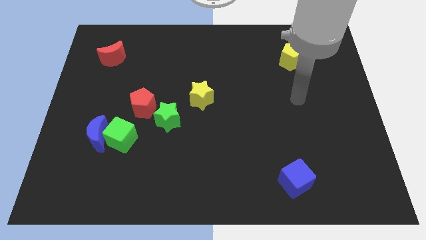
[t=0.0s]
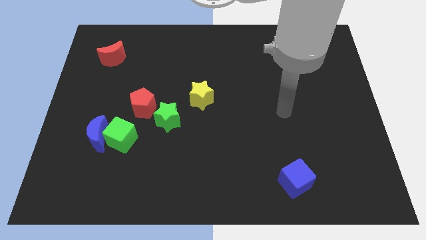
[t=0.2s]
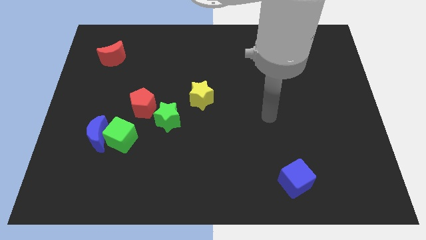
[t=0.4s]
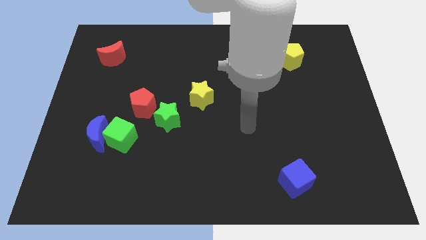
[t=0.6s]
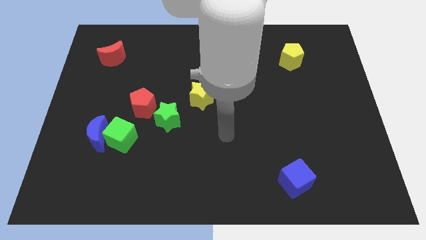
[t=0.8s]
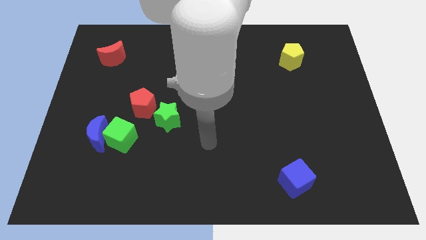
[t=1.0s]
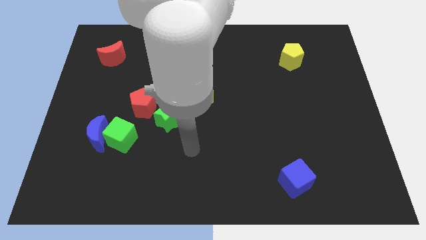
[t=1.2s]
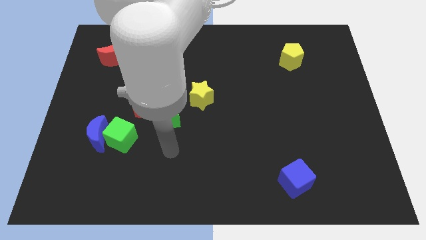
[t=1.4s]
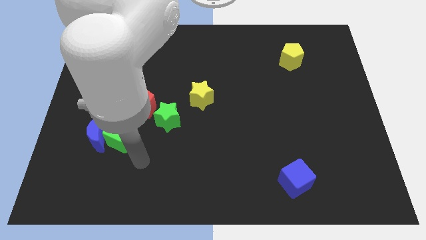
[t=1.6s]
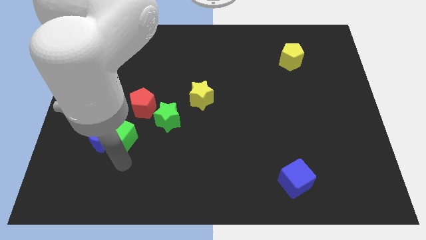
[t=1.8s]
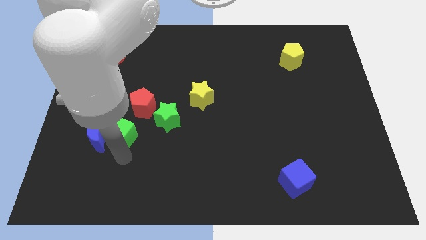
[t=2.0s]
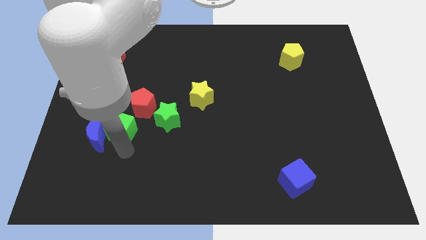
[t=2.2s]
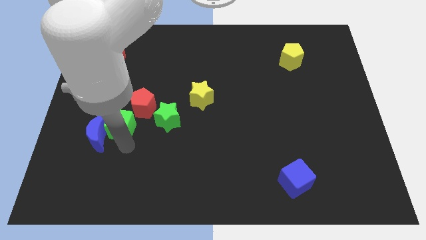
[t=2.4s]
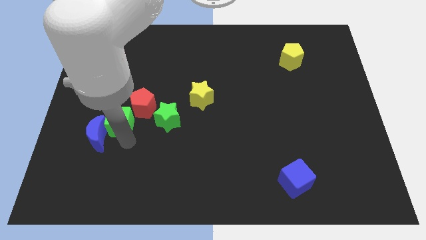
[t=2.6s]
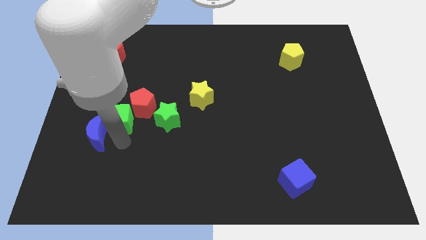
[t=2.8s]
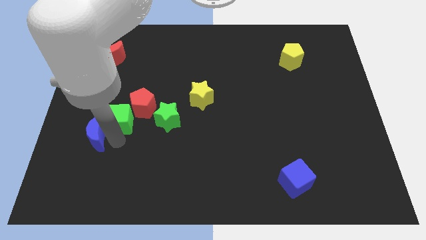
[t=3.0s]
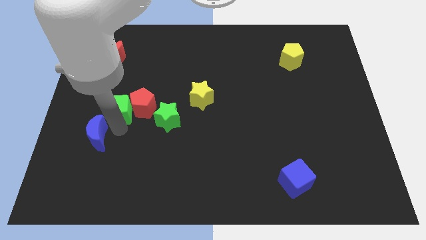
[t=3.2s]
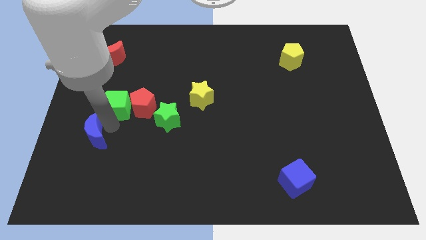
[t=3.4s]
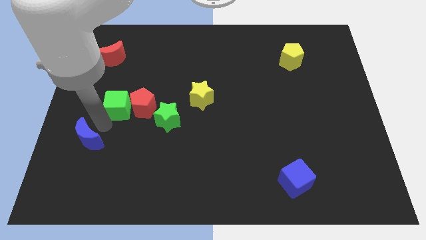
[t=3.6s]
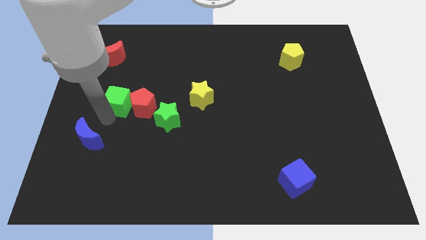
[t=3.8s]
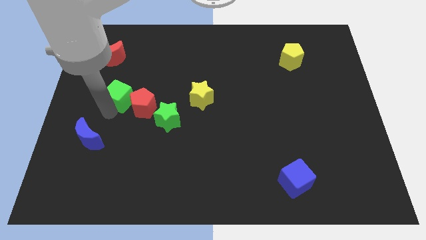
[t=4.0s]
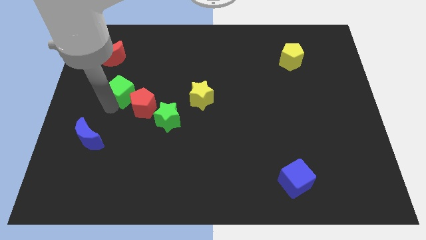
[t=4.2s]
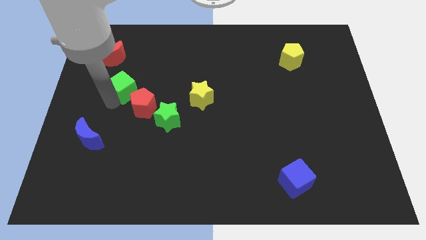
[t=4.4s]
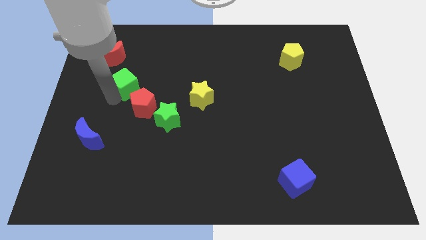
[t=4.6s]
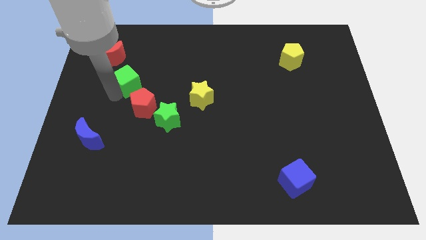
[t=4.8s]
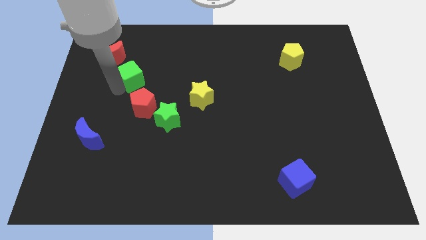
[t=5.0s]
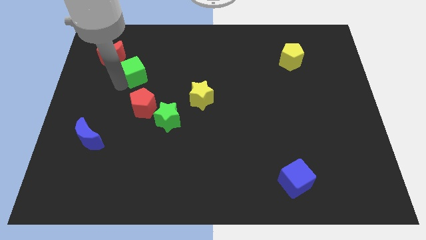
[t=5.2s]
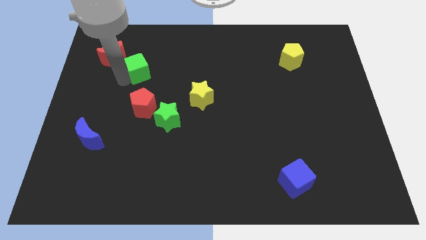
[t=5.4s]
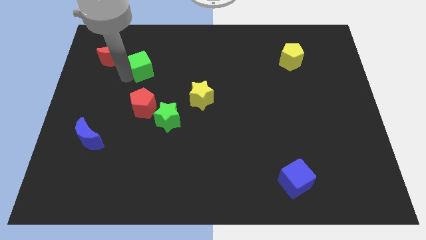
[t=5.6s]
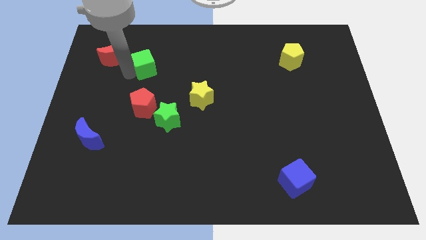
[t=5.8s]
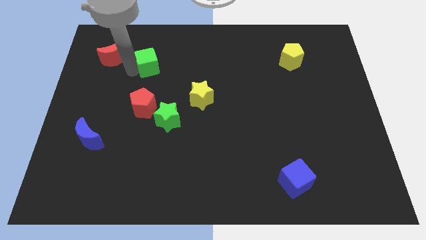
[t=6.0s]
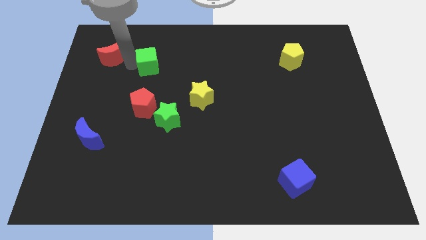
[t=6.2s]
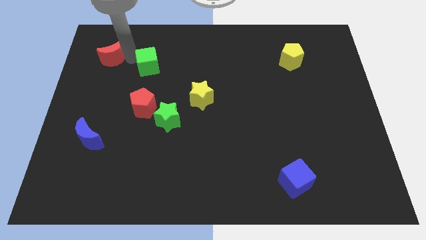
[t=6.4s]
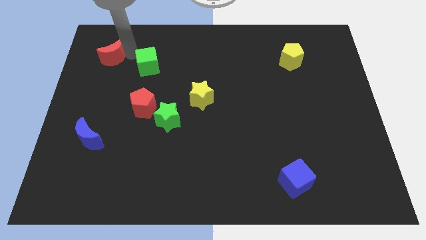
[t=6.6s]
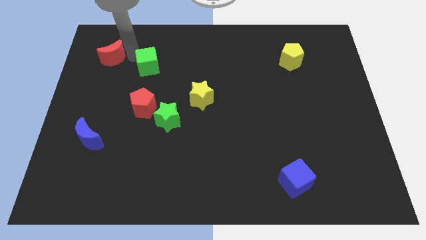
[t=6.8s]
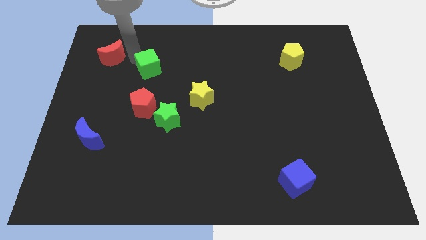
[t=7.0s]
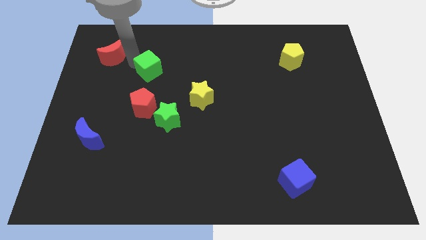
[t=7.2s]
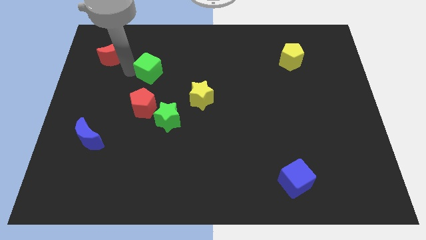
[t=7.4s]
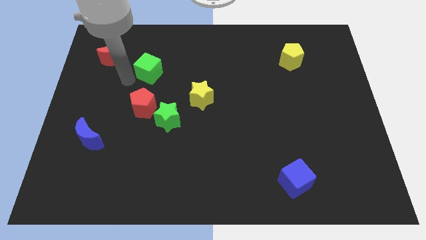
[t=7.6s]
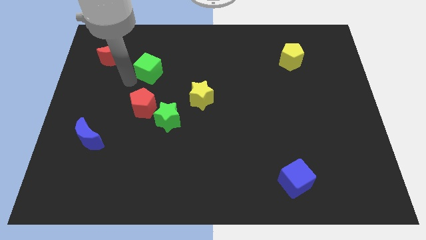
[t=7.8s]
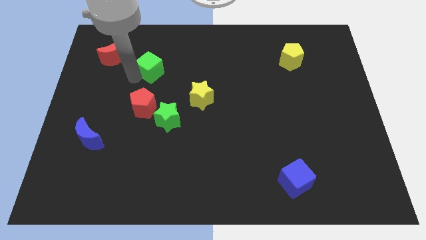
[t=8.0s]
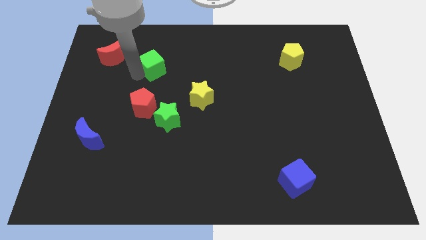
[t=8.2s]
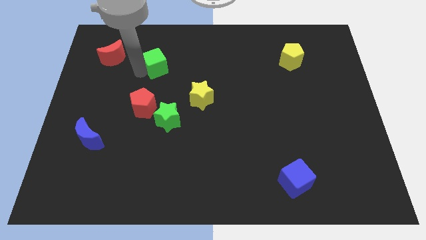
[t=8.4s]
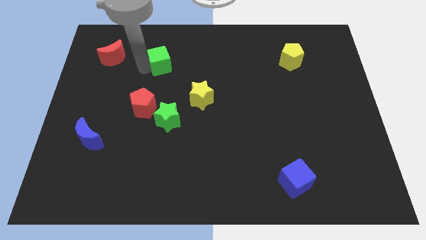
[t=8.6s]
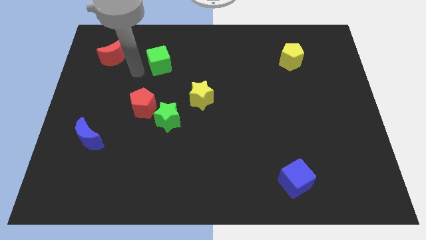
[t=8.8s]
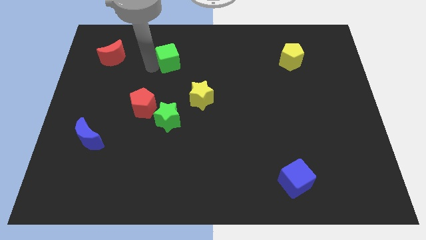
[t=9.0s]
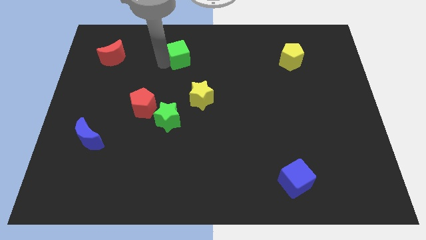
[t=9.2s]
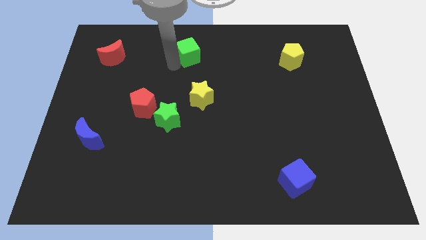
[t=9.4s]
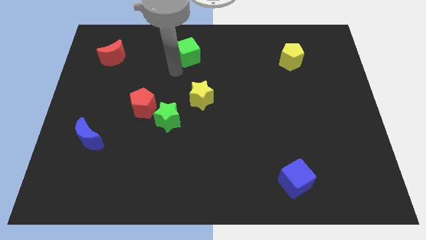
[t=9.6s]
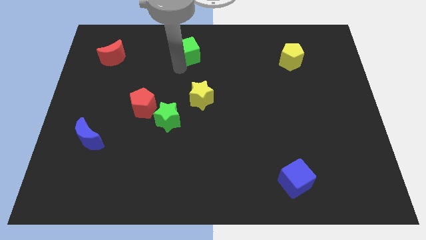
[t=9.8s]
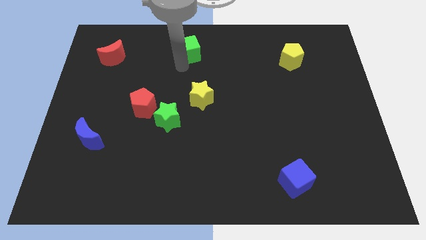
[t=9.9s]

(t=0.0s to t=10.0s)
slide the green cube to the top side

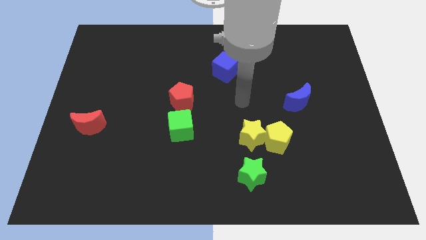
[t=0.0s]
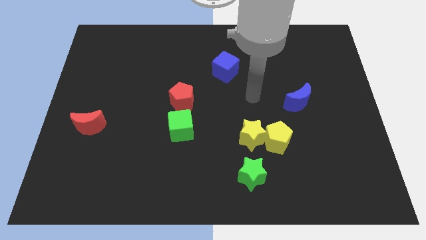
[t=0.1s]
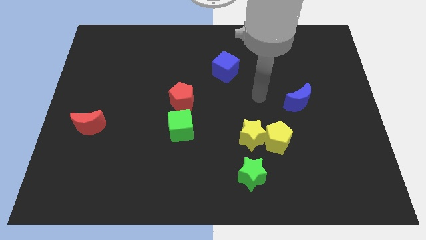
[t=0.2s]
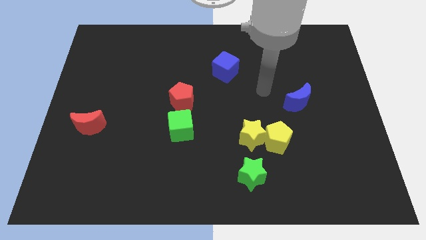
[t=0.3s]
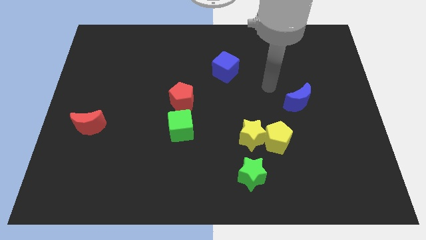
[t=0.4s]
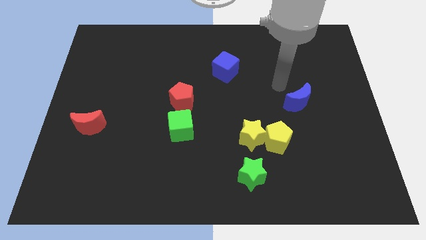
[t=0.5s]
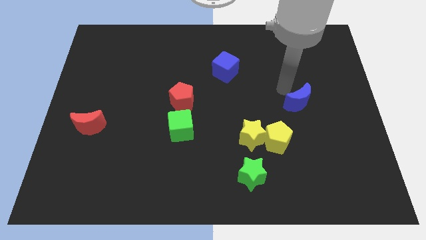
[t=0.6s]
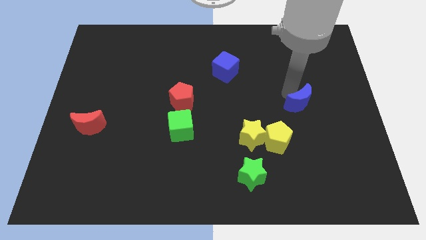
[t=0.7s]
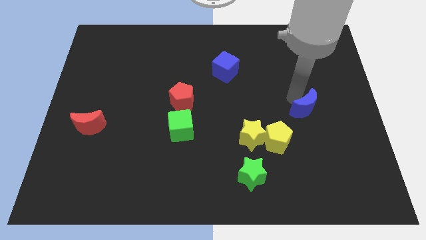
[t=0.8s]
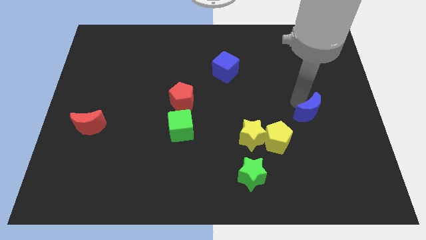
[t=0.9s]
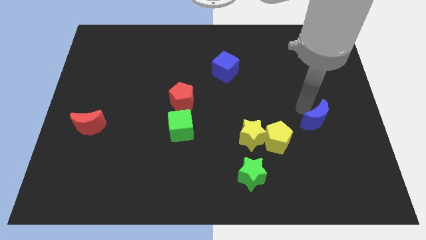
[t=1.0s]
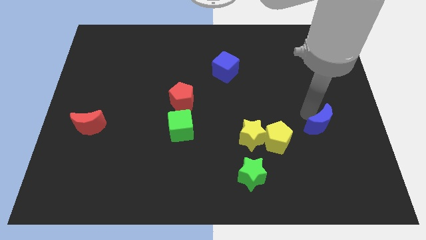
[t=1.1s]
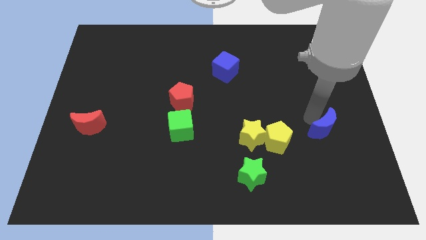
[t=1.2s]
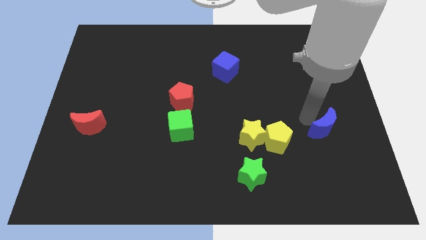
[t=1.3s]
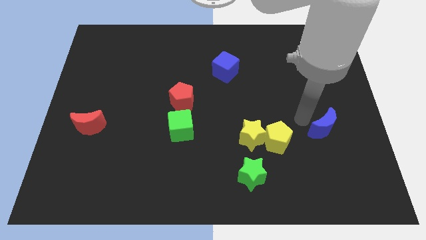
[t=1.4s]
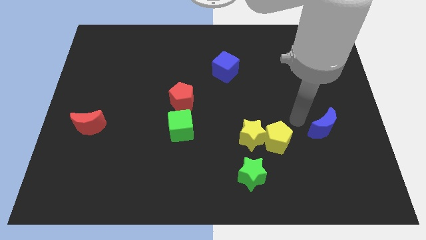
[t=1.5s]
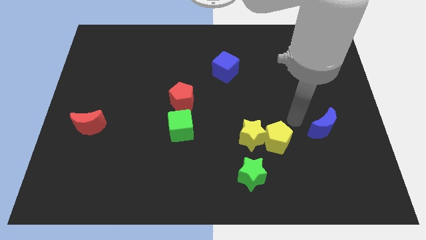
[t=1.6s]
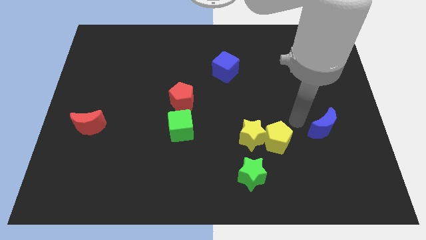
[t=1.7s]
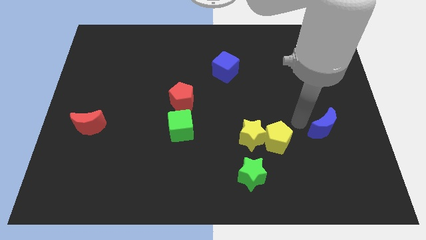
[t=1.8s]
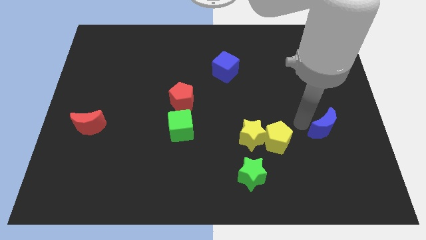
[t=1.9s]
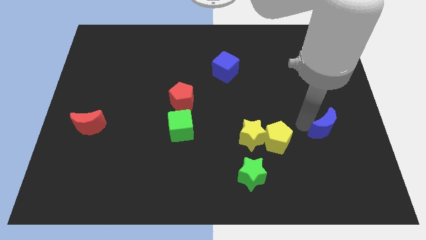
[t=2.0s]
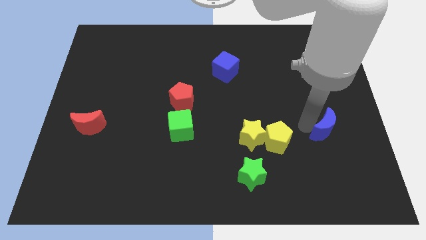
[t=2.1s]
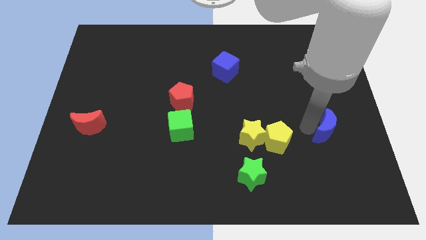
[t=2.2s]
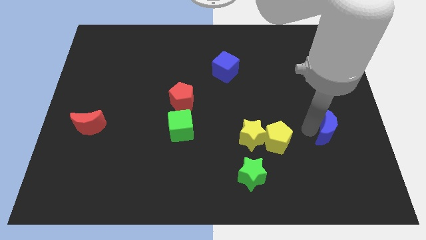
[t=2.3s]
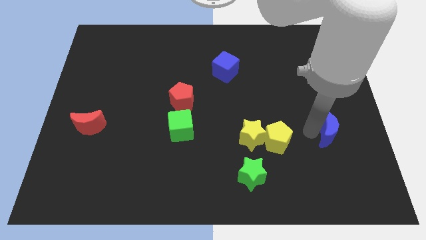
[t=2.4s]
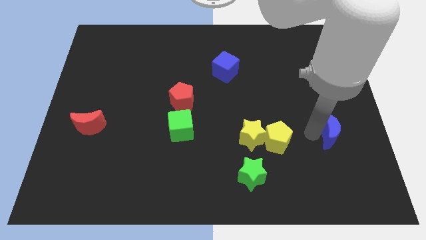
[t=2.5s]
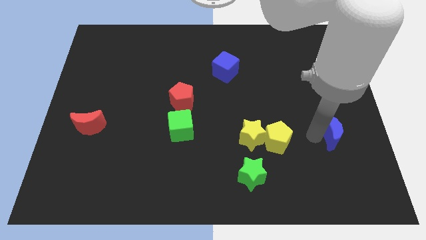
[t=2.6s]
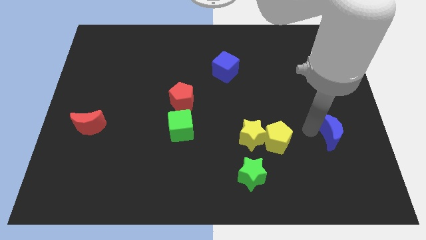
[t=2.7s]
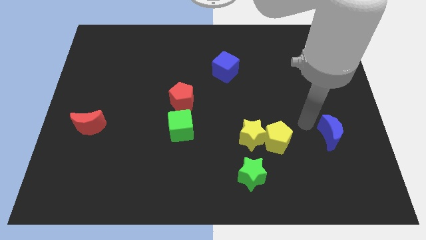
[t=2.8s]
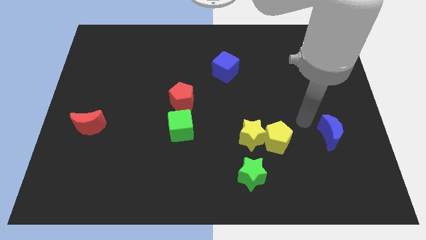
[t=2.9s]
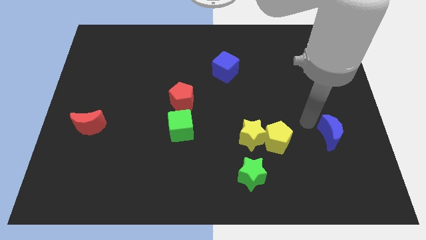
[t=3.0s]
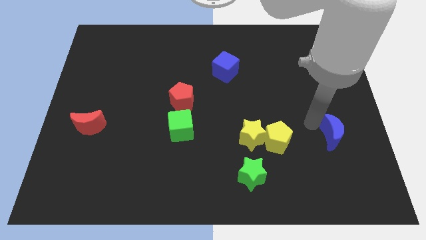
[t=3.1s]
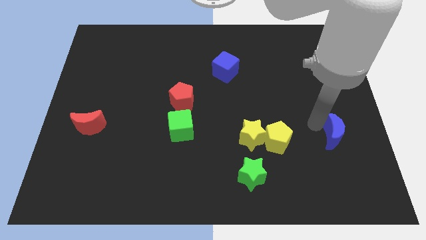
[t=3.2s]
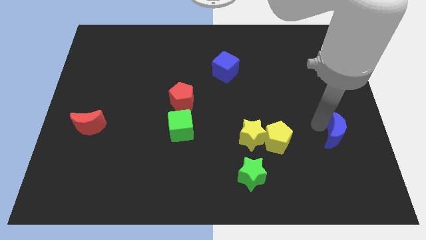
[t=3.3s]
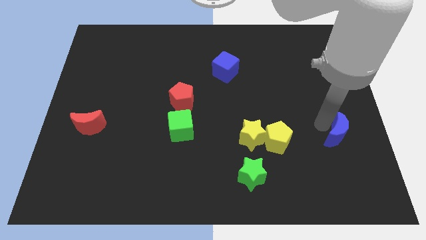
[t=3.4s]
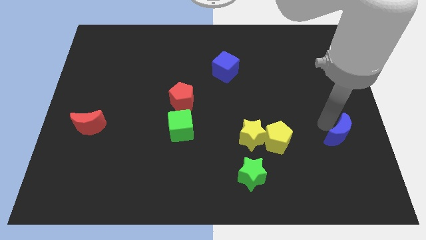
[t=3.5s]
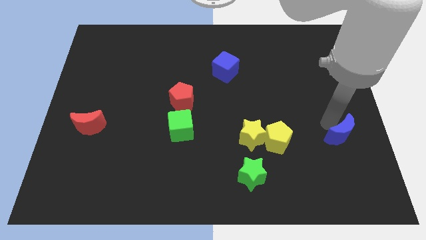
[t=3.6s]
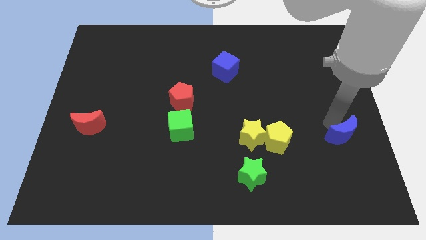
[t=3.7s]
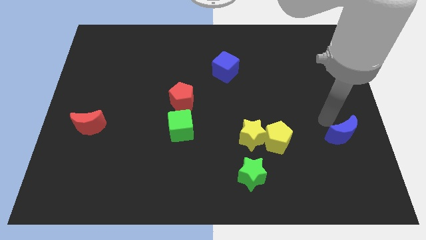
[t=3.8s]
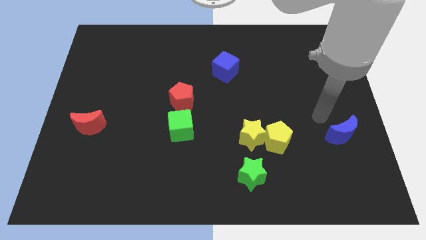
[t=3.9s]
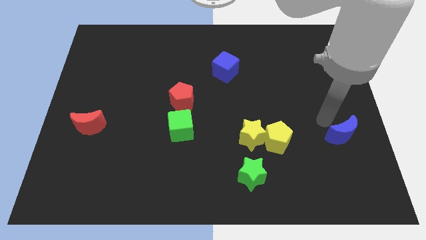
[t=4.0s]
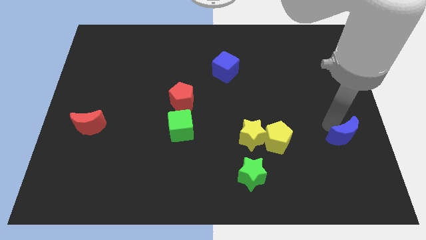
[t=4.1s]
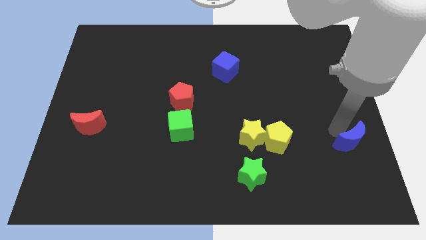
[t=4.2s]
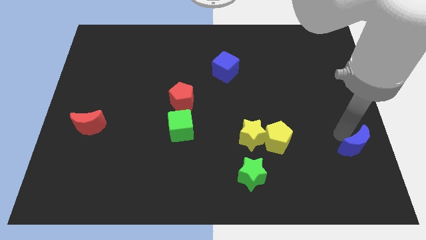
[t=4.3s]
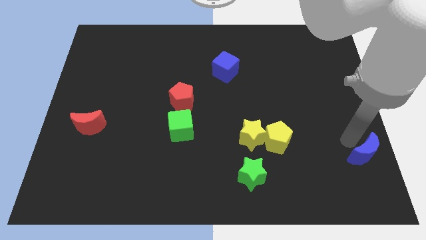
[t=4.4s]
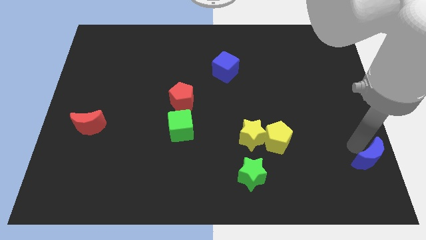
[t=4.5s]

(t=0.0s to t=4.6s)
slide the blue moon to the bottom right
